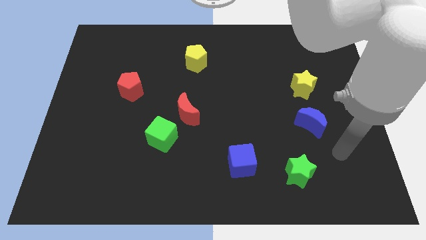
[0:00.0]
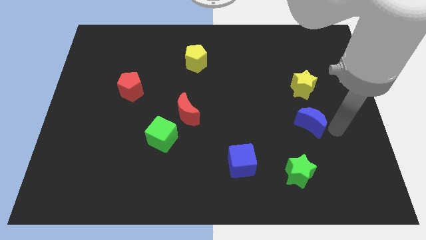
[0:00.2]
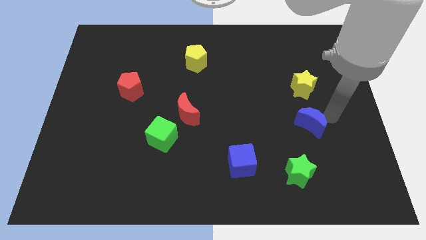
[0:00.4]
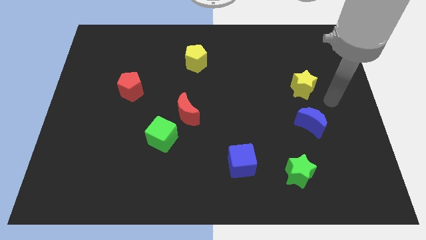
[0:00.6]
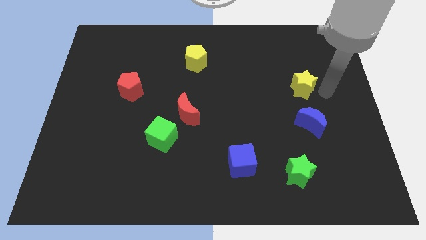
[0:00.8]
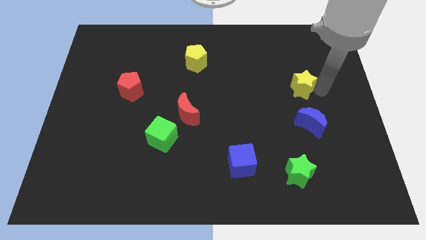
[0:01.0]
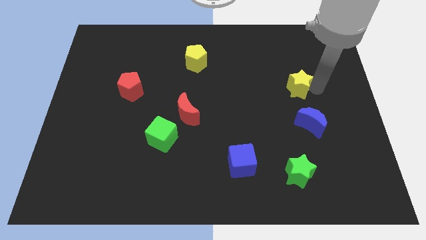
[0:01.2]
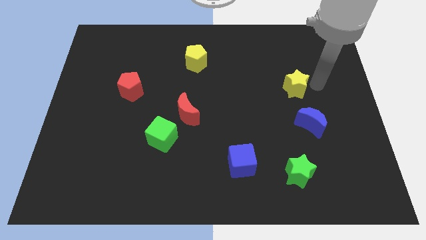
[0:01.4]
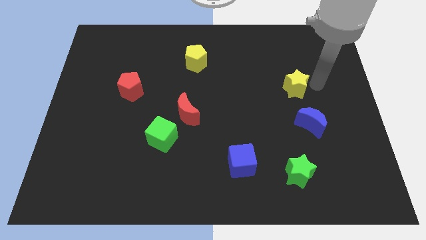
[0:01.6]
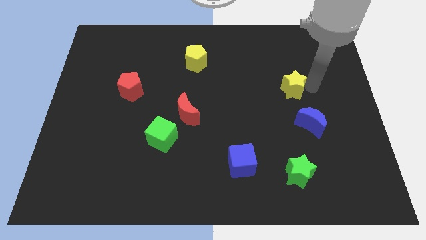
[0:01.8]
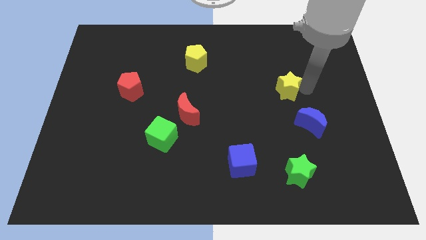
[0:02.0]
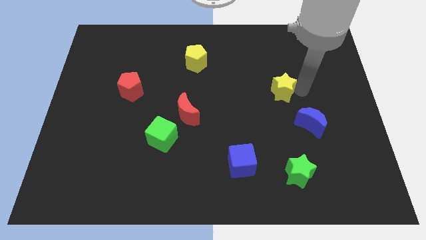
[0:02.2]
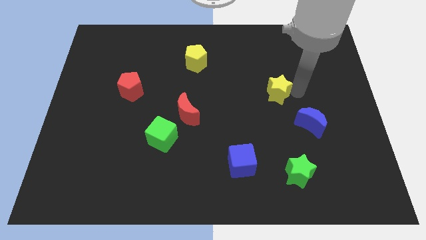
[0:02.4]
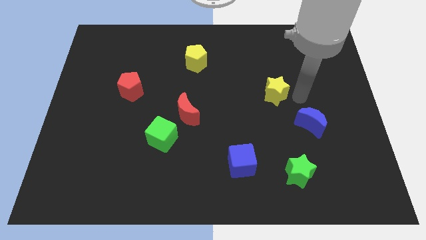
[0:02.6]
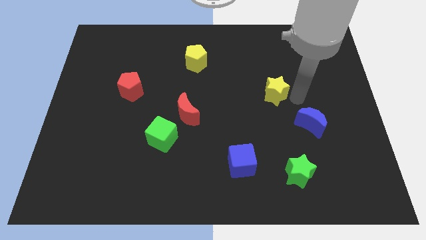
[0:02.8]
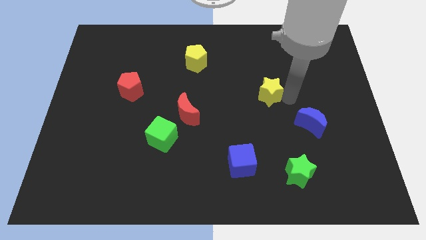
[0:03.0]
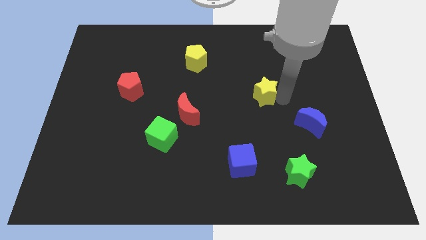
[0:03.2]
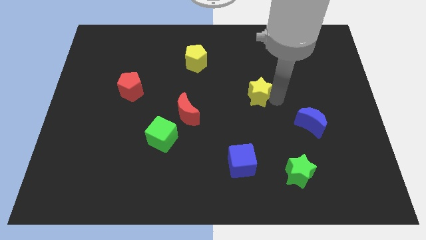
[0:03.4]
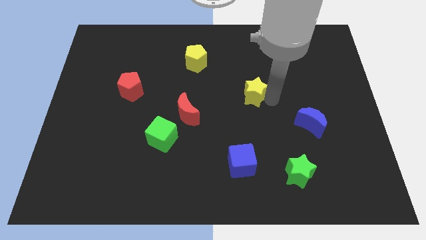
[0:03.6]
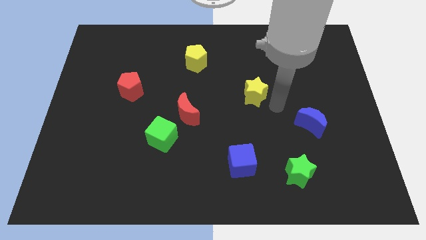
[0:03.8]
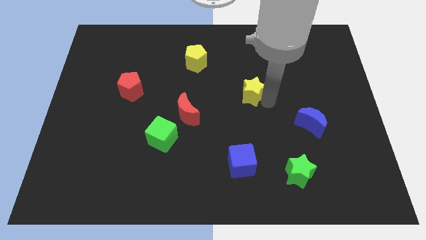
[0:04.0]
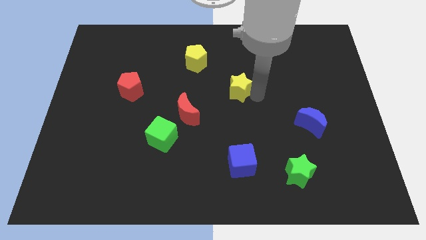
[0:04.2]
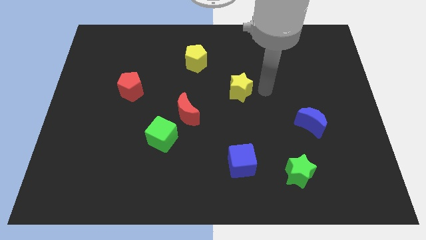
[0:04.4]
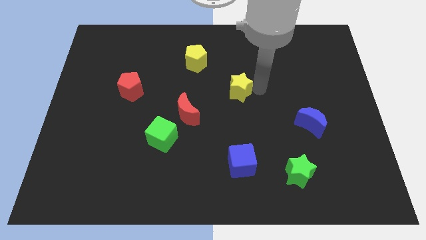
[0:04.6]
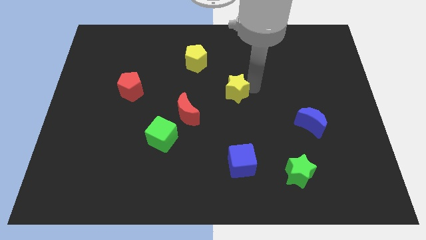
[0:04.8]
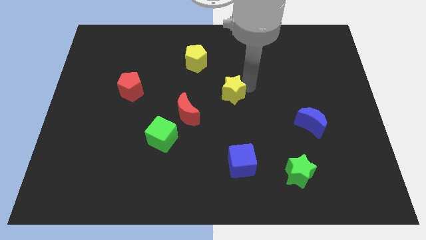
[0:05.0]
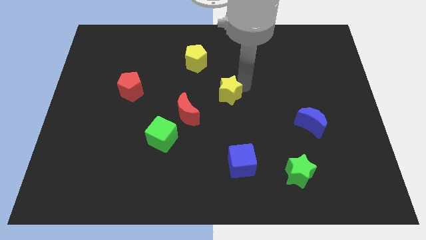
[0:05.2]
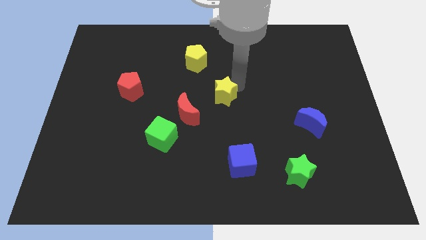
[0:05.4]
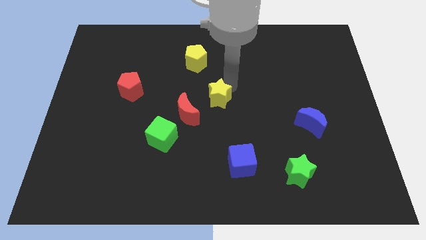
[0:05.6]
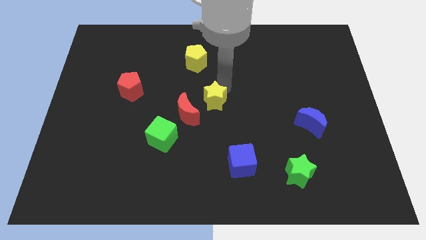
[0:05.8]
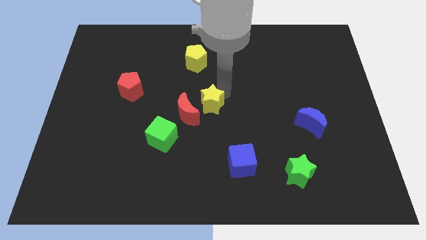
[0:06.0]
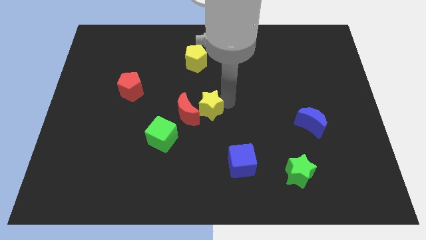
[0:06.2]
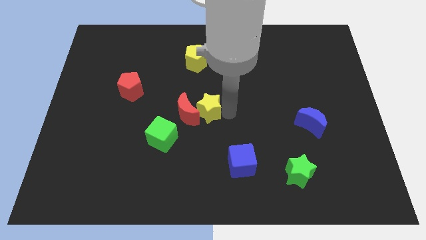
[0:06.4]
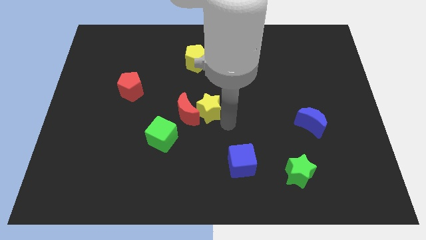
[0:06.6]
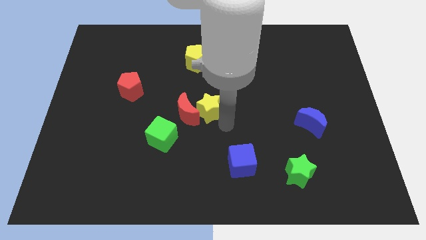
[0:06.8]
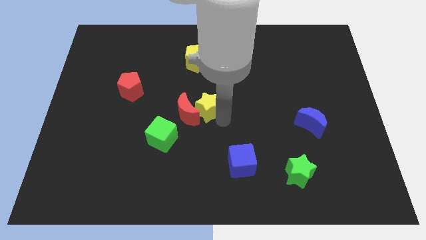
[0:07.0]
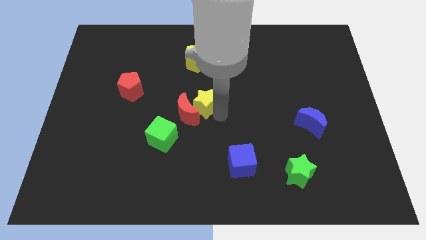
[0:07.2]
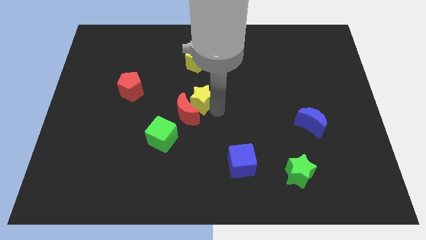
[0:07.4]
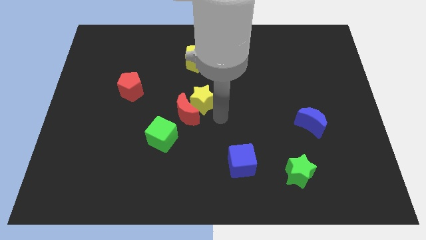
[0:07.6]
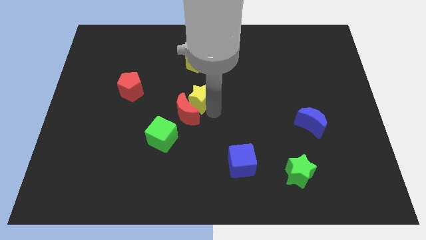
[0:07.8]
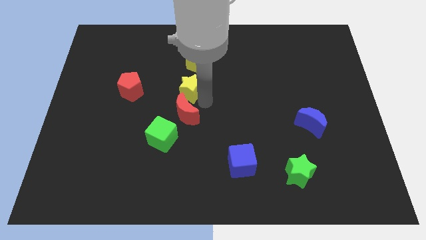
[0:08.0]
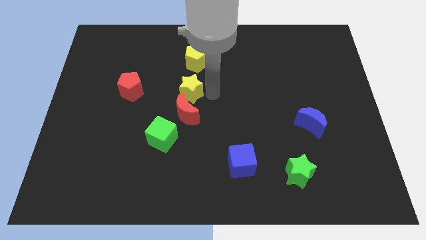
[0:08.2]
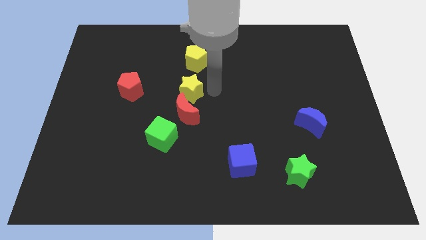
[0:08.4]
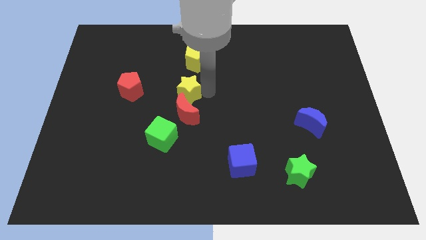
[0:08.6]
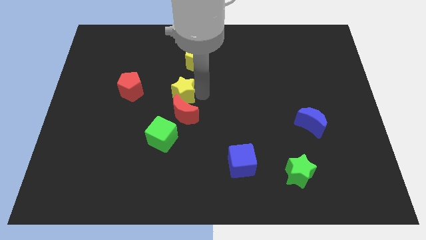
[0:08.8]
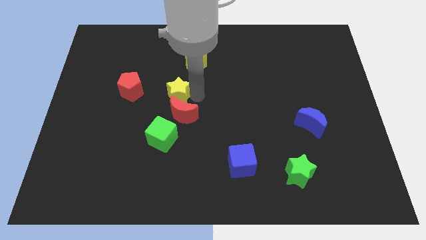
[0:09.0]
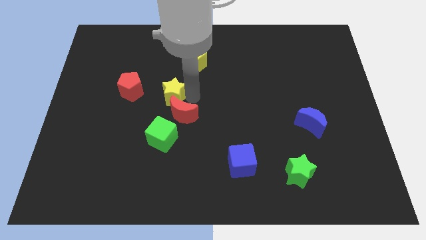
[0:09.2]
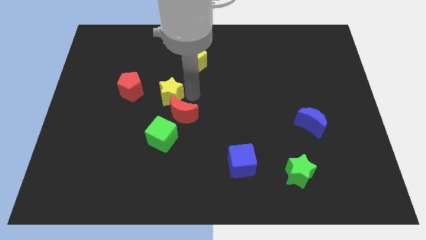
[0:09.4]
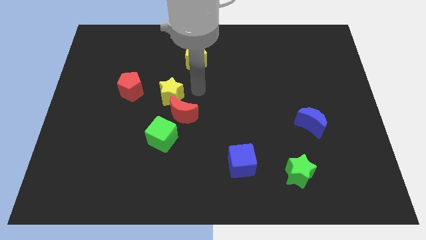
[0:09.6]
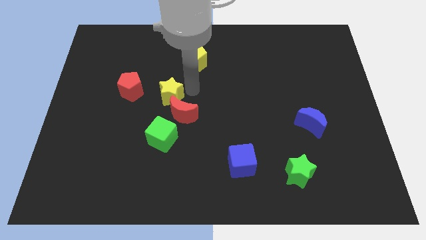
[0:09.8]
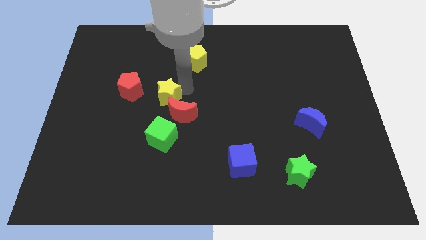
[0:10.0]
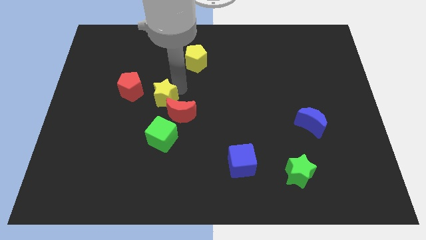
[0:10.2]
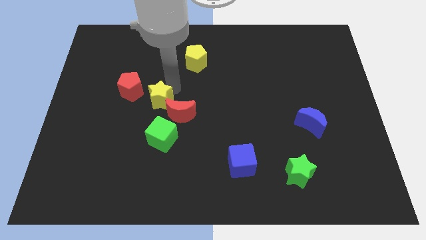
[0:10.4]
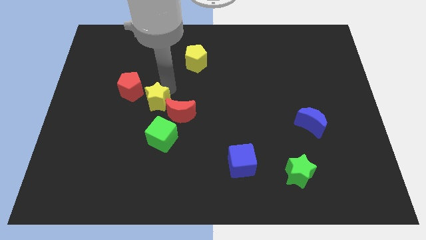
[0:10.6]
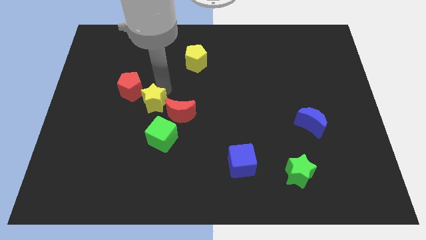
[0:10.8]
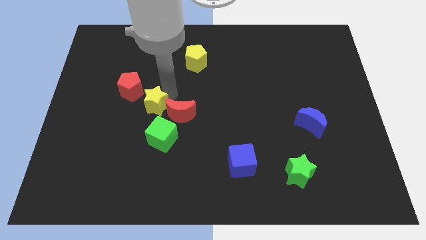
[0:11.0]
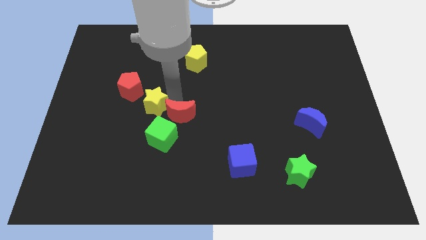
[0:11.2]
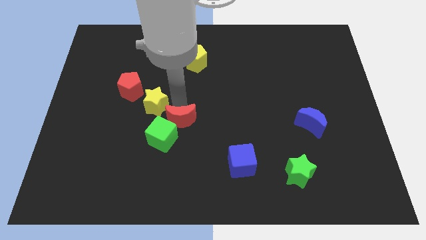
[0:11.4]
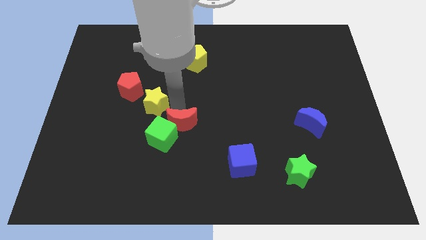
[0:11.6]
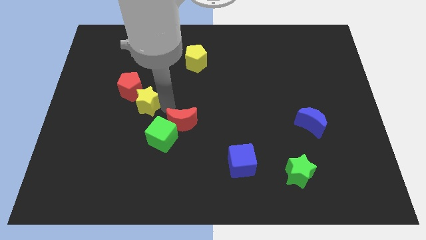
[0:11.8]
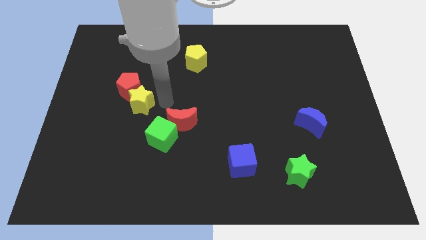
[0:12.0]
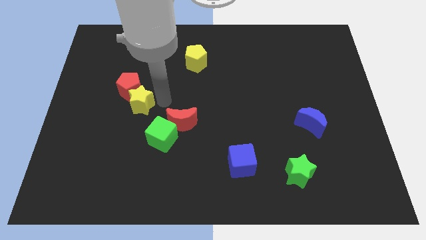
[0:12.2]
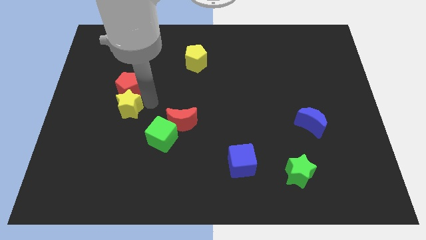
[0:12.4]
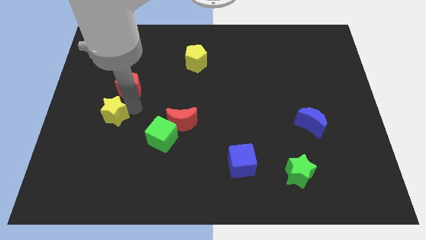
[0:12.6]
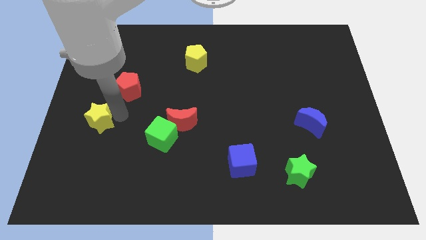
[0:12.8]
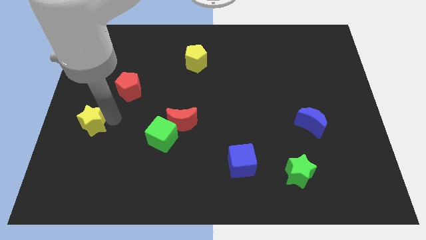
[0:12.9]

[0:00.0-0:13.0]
put the yellow star to the center left
